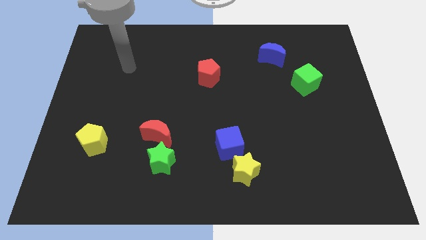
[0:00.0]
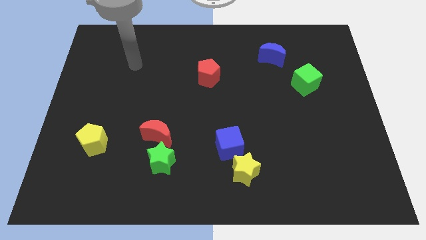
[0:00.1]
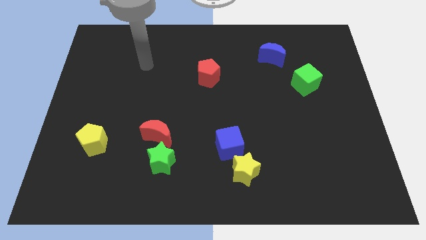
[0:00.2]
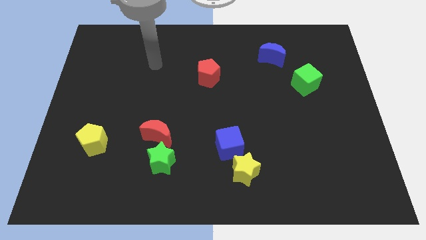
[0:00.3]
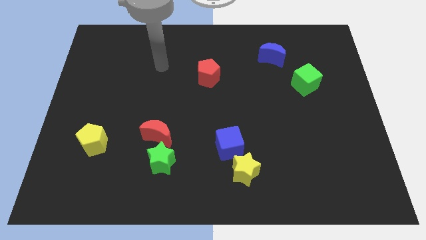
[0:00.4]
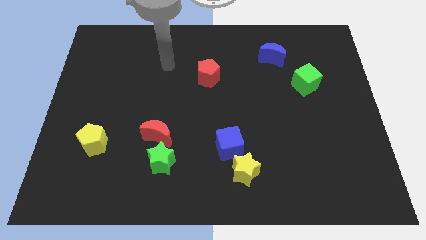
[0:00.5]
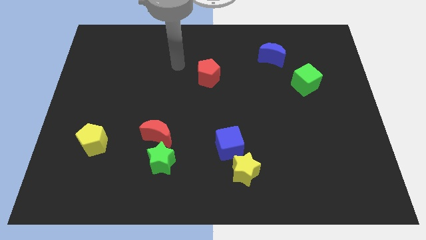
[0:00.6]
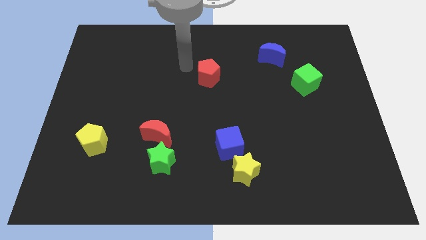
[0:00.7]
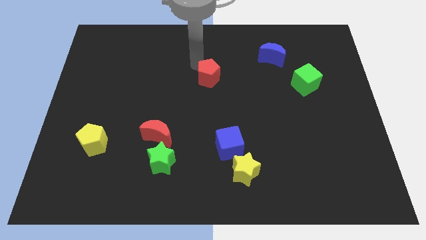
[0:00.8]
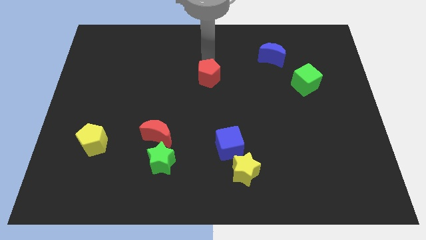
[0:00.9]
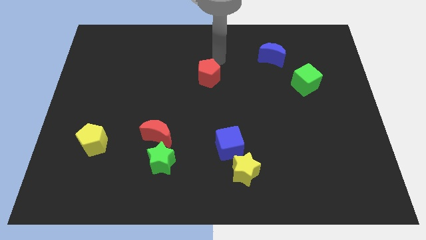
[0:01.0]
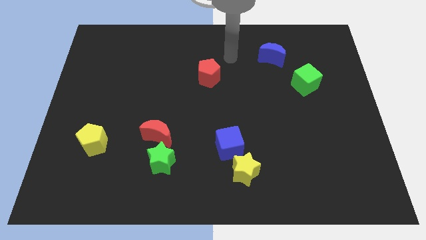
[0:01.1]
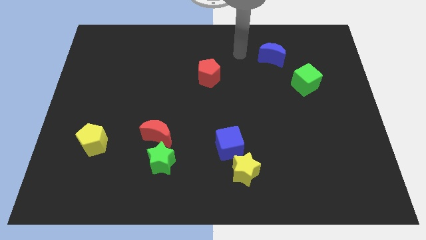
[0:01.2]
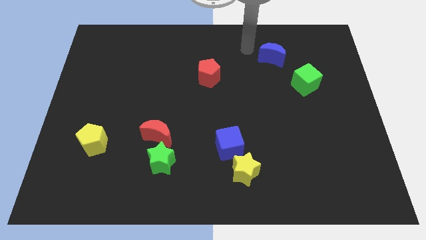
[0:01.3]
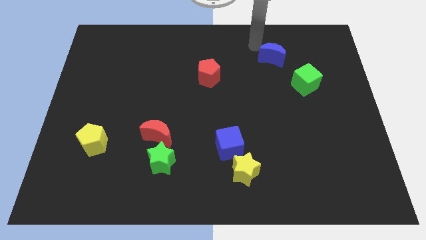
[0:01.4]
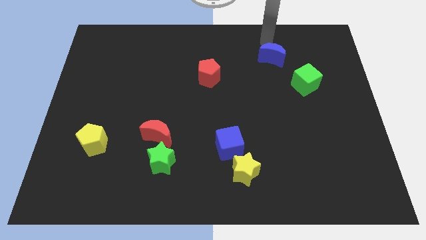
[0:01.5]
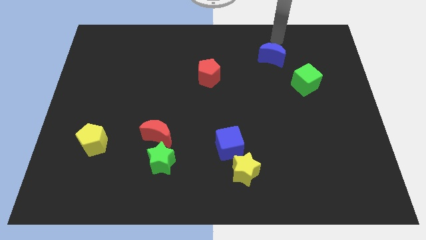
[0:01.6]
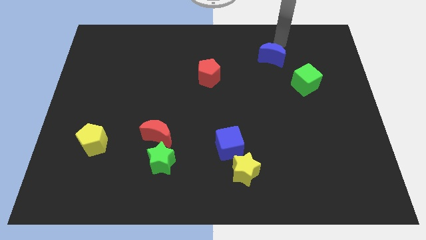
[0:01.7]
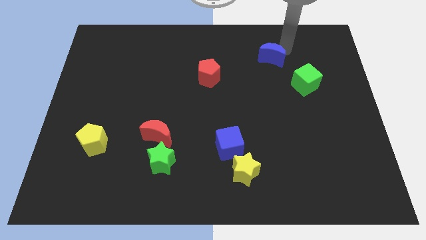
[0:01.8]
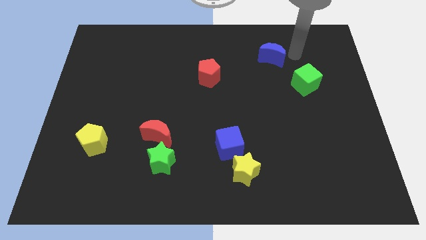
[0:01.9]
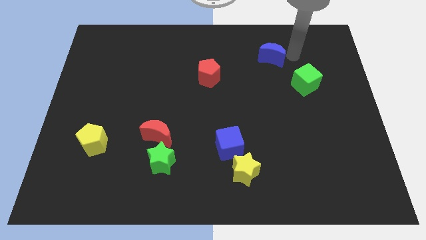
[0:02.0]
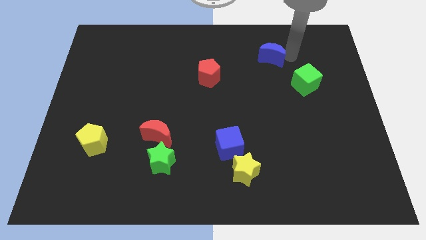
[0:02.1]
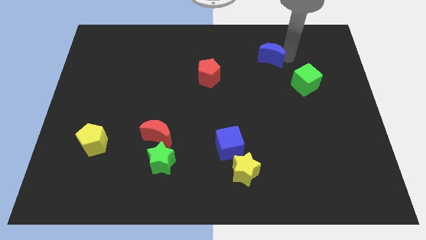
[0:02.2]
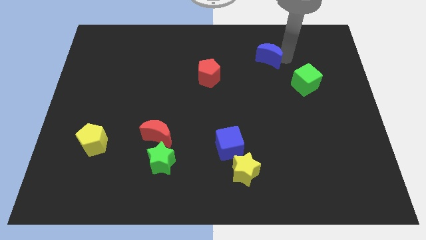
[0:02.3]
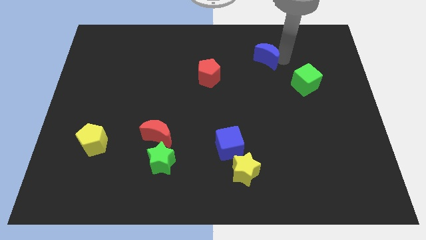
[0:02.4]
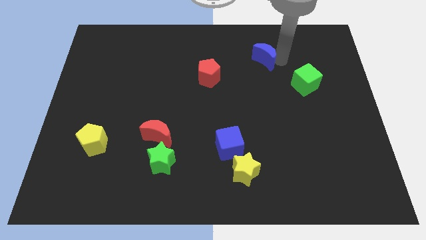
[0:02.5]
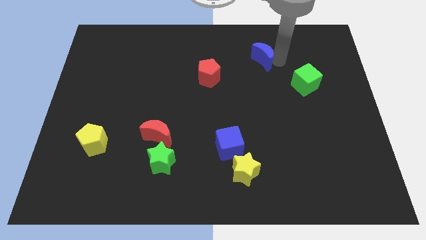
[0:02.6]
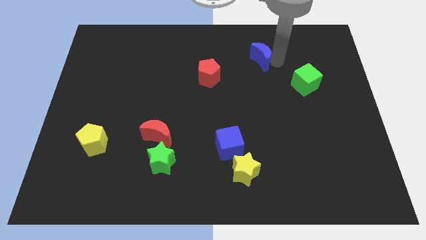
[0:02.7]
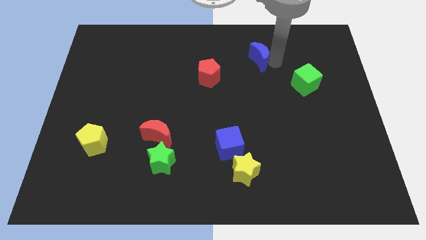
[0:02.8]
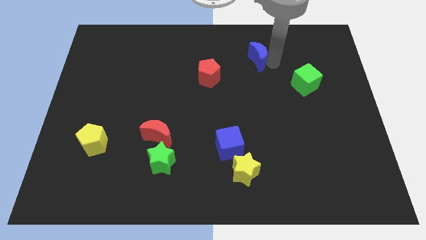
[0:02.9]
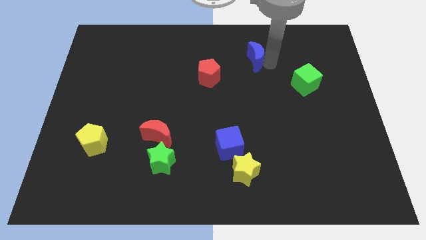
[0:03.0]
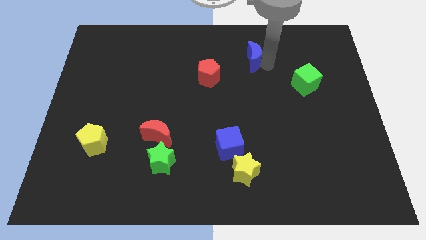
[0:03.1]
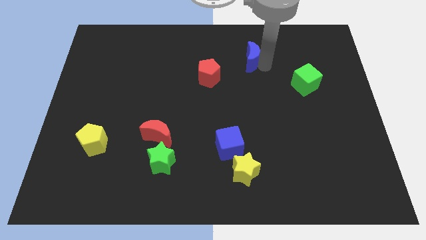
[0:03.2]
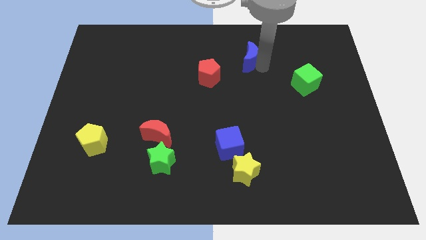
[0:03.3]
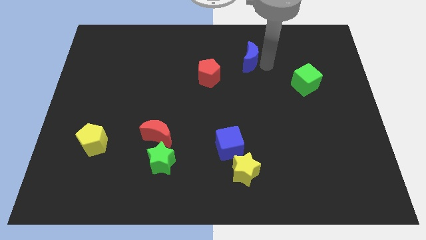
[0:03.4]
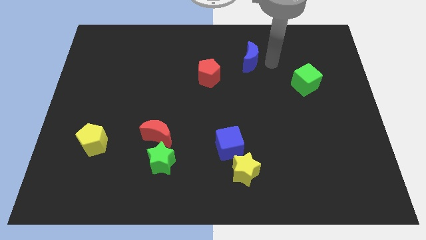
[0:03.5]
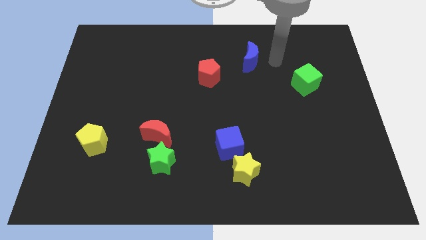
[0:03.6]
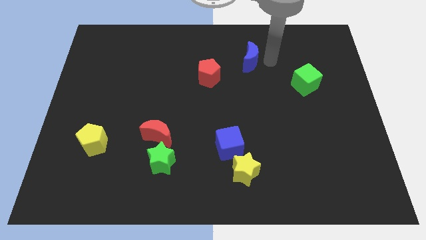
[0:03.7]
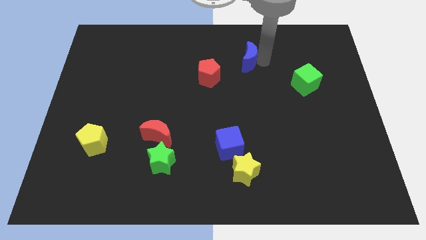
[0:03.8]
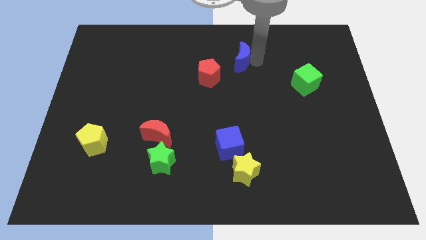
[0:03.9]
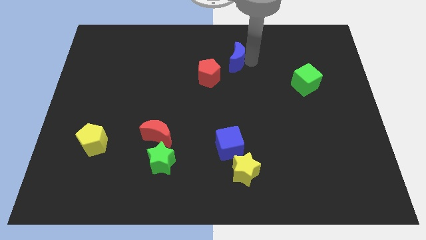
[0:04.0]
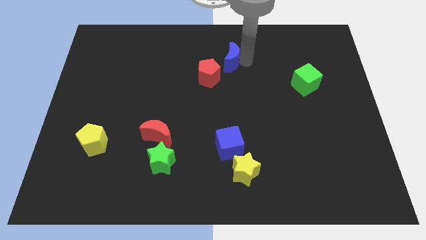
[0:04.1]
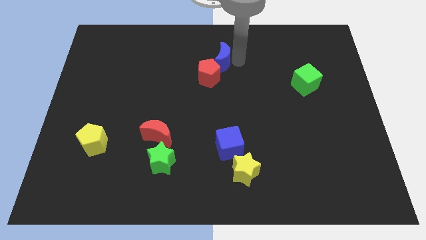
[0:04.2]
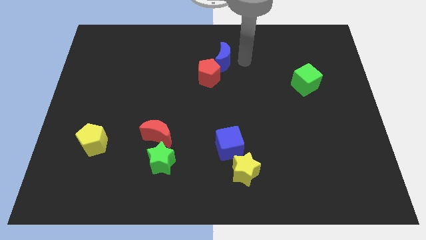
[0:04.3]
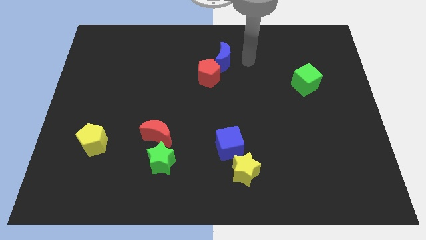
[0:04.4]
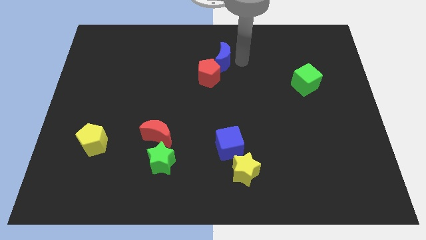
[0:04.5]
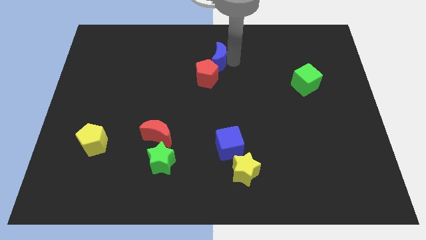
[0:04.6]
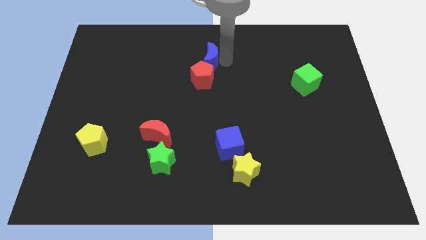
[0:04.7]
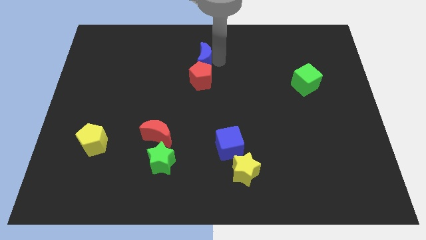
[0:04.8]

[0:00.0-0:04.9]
slide the blue moon to the top left side of the red pentagon

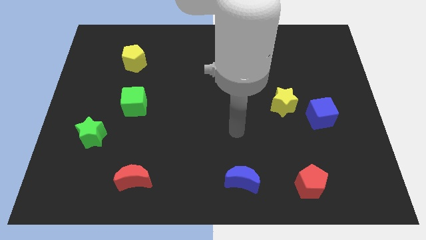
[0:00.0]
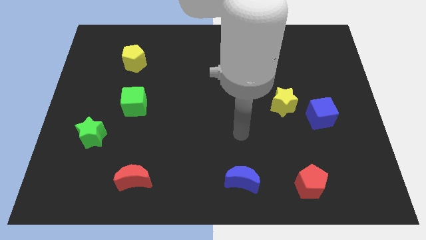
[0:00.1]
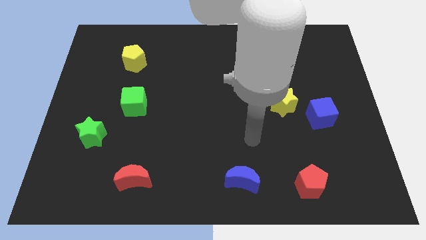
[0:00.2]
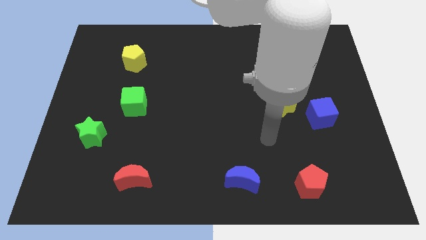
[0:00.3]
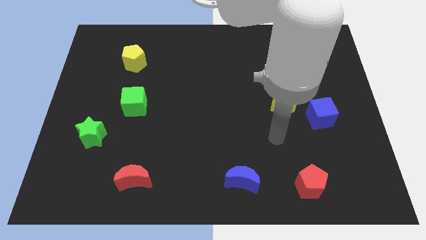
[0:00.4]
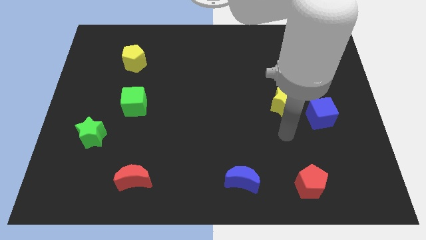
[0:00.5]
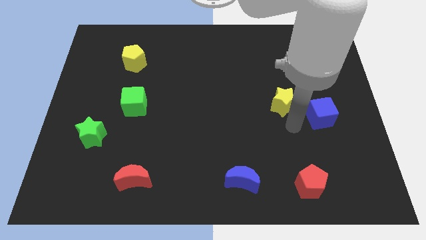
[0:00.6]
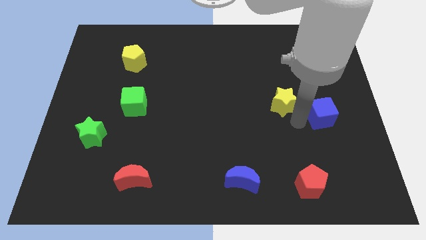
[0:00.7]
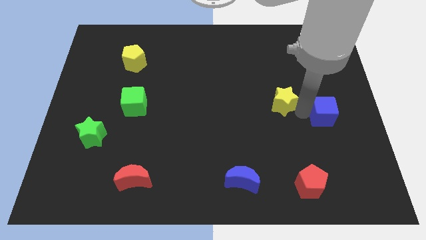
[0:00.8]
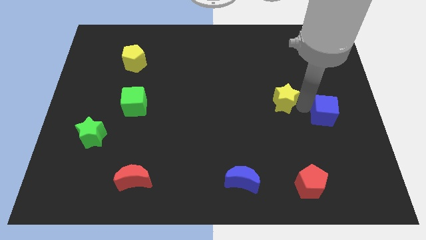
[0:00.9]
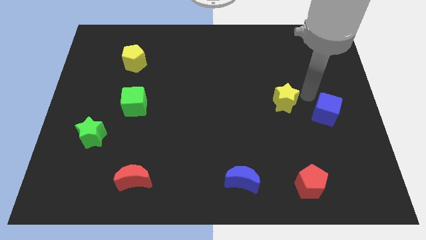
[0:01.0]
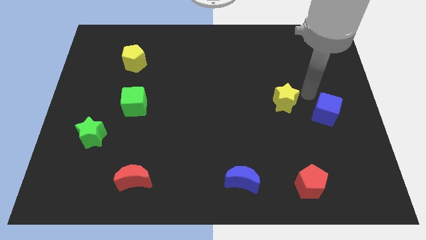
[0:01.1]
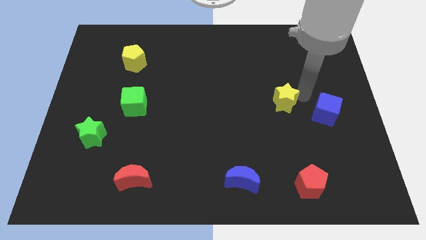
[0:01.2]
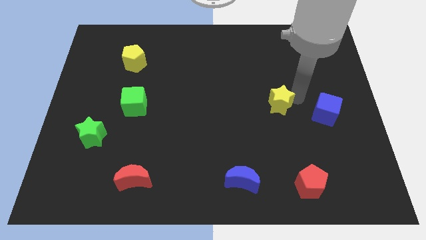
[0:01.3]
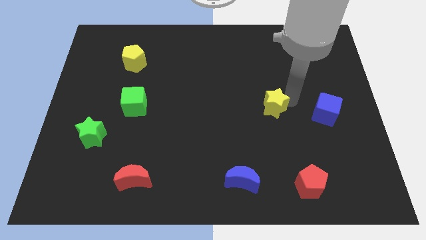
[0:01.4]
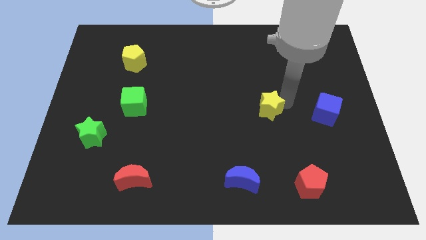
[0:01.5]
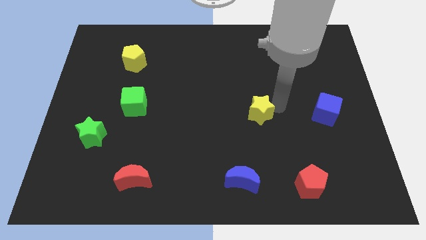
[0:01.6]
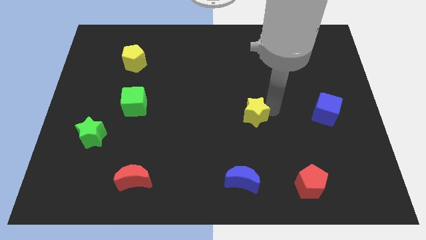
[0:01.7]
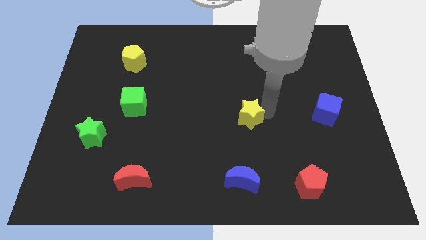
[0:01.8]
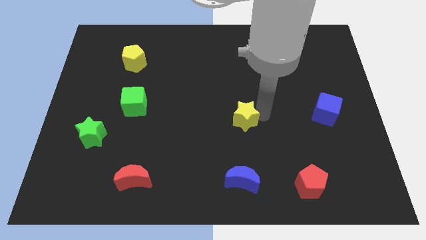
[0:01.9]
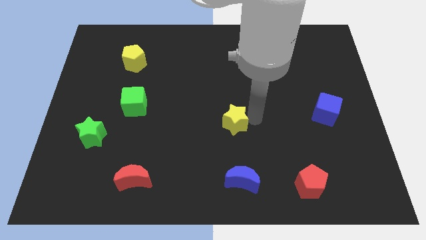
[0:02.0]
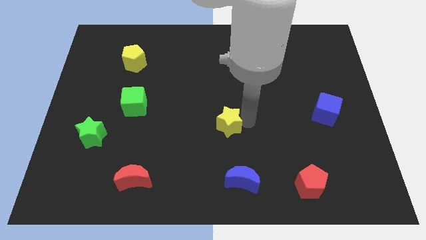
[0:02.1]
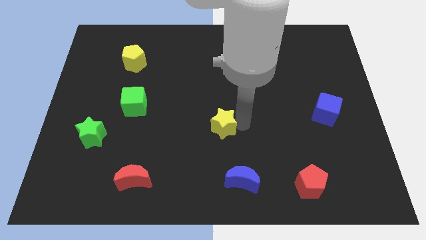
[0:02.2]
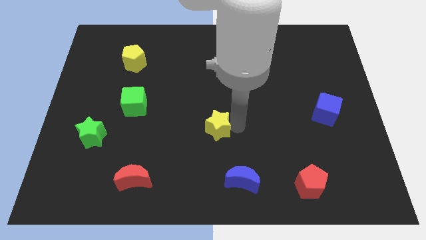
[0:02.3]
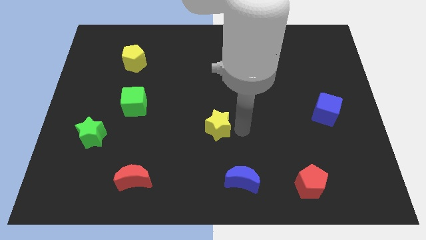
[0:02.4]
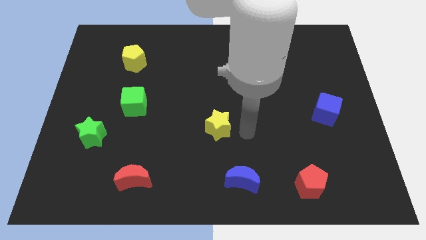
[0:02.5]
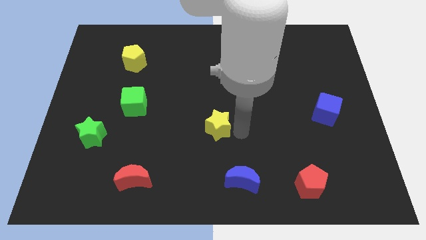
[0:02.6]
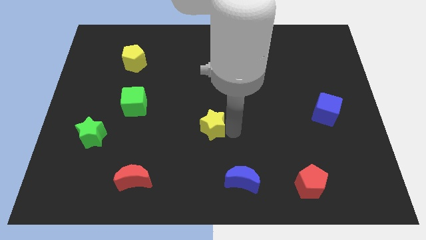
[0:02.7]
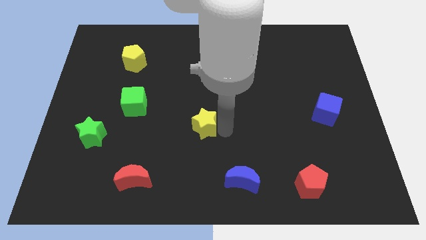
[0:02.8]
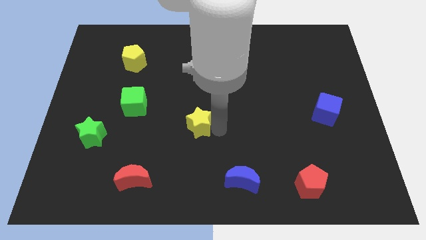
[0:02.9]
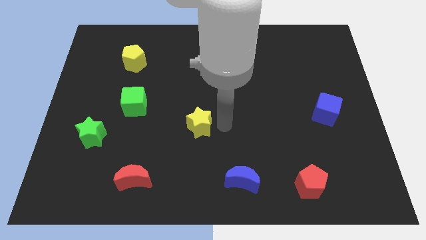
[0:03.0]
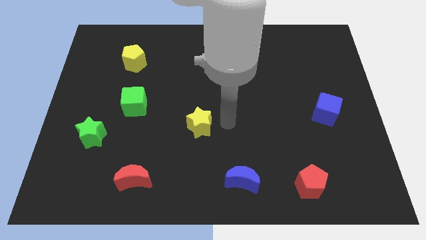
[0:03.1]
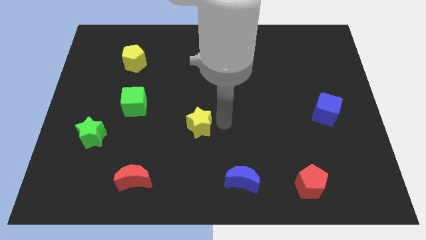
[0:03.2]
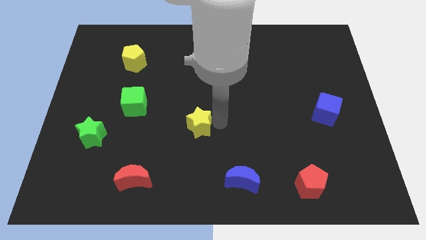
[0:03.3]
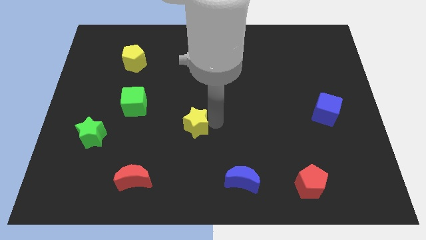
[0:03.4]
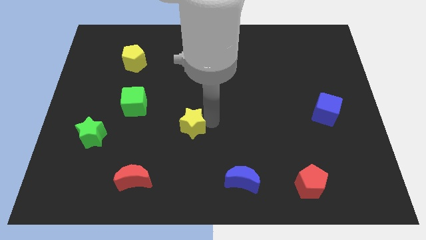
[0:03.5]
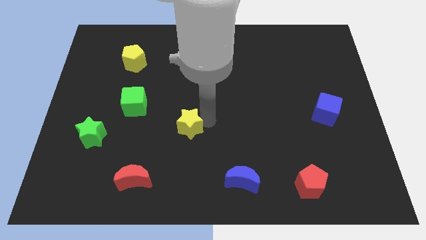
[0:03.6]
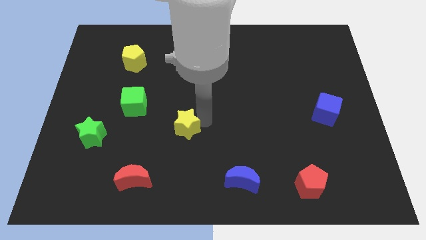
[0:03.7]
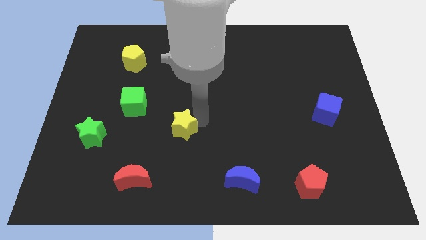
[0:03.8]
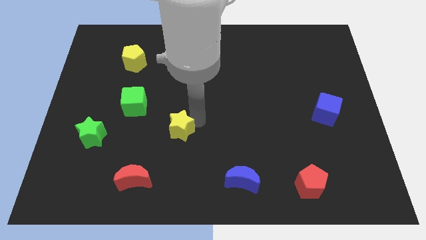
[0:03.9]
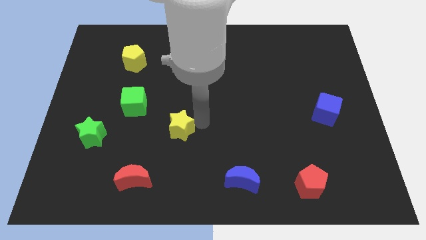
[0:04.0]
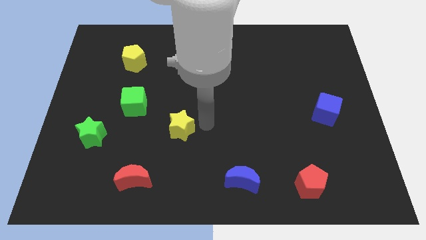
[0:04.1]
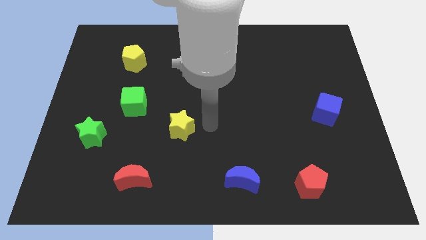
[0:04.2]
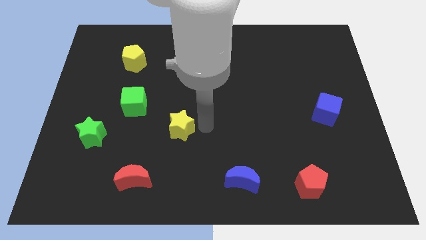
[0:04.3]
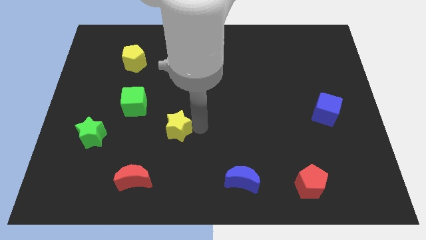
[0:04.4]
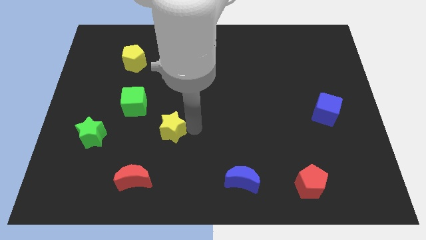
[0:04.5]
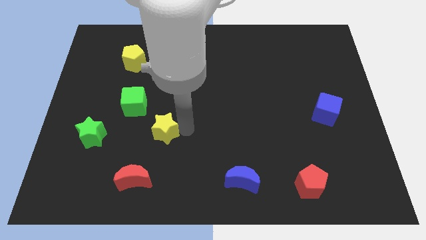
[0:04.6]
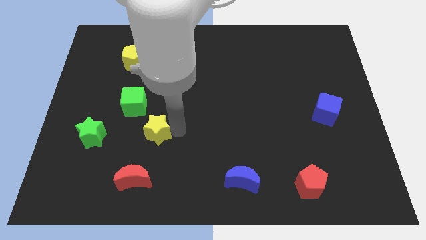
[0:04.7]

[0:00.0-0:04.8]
put the yellow star above the red moon
